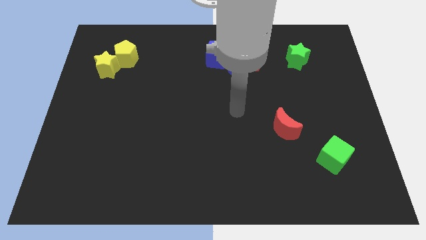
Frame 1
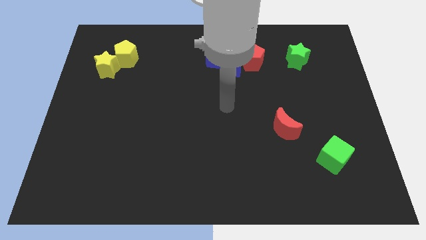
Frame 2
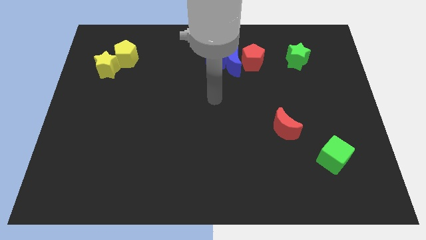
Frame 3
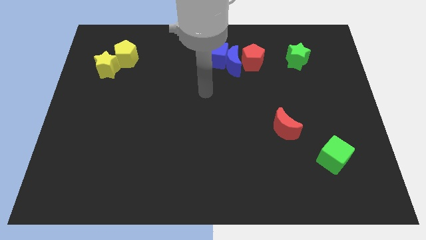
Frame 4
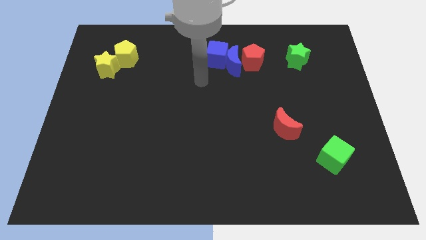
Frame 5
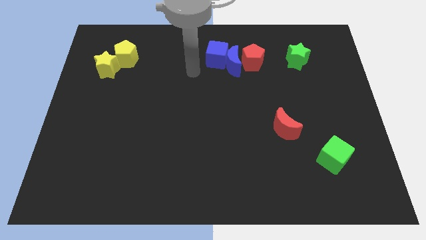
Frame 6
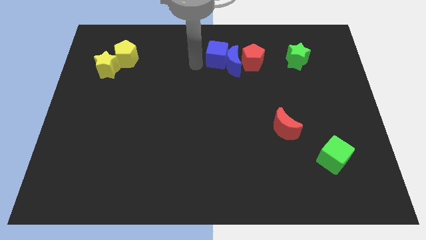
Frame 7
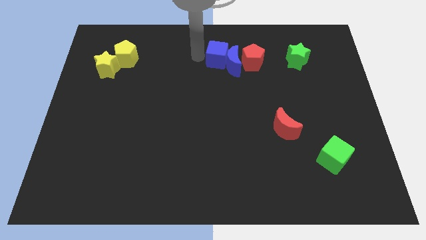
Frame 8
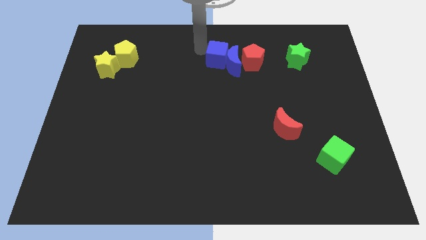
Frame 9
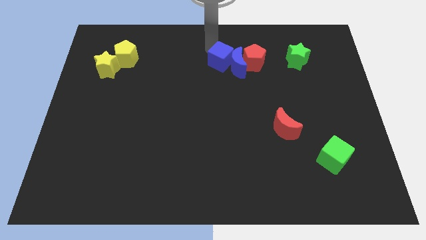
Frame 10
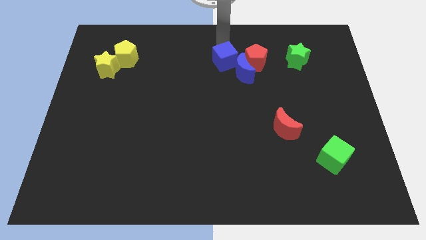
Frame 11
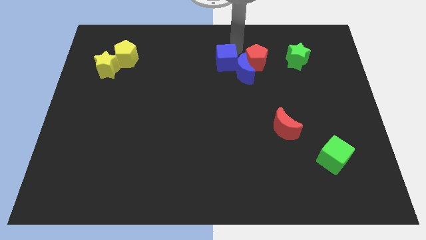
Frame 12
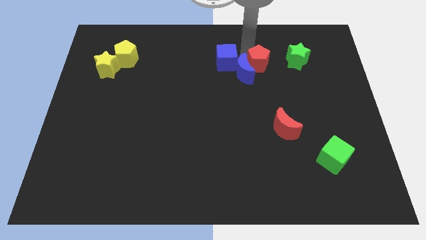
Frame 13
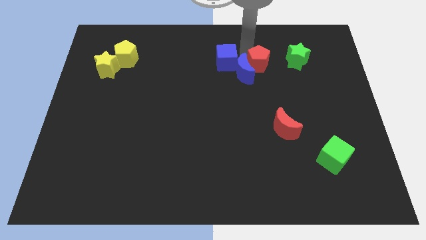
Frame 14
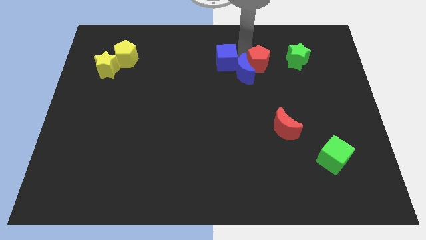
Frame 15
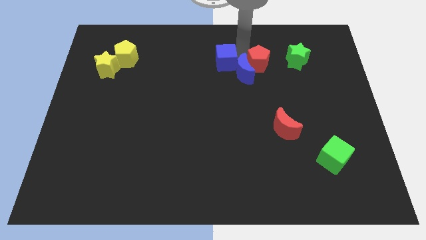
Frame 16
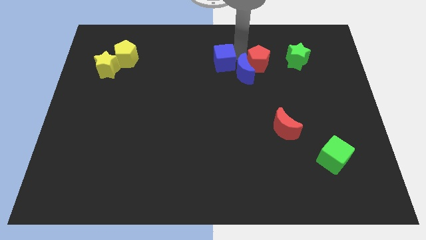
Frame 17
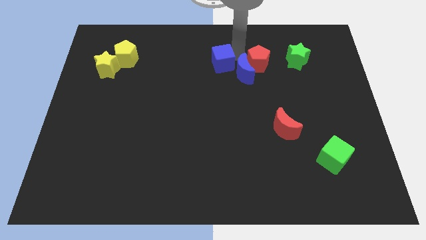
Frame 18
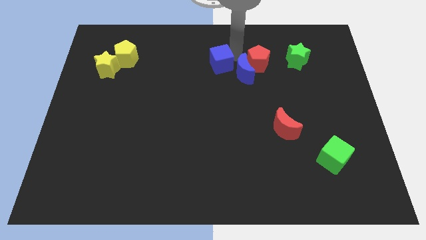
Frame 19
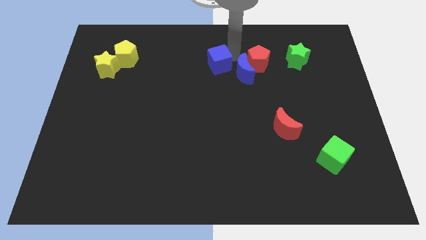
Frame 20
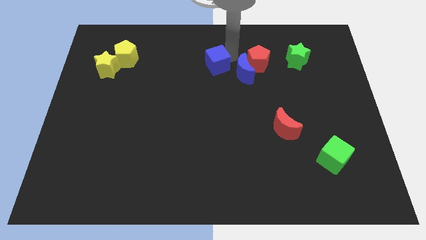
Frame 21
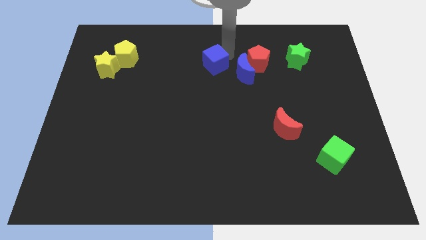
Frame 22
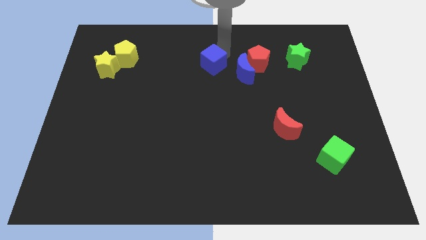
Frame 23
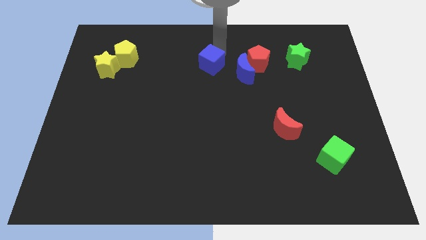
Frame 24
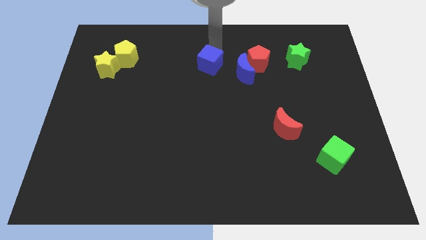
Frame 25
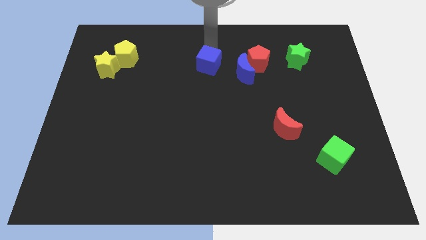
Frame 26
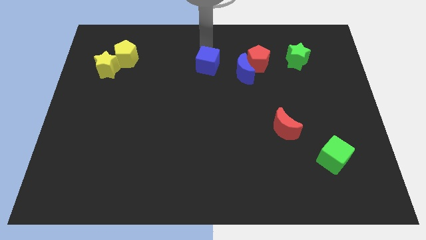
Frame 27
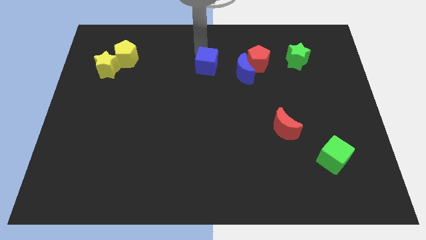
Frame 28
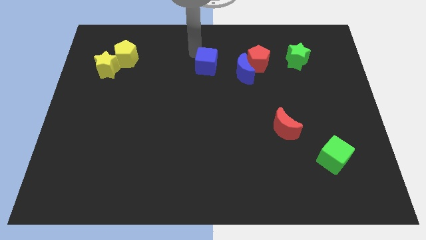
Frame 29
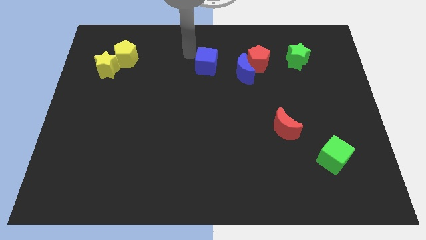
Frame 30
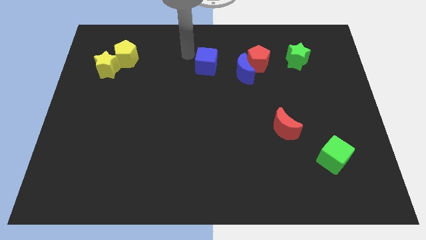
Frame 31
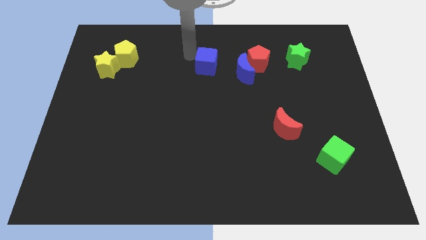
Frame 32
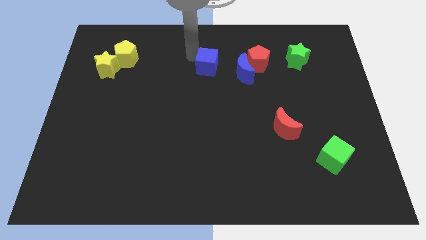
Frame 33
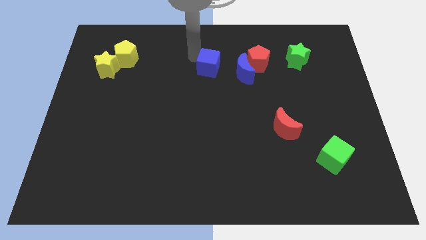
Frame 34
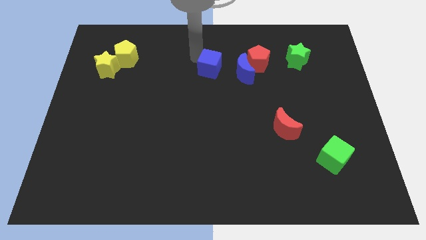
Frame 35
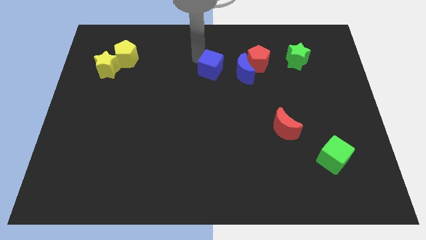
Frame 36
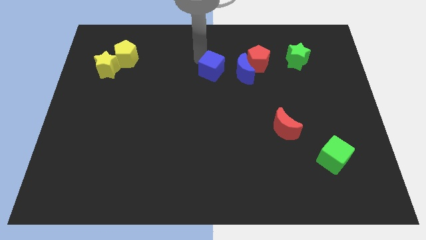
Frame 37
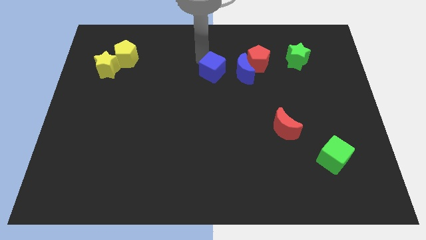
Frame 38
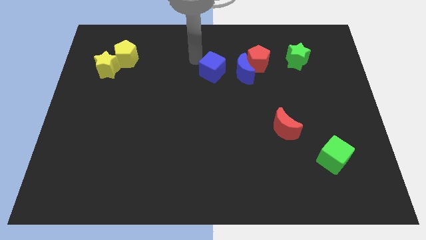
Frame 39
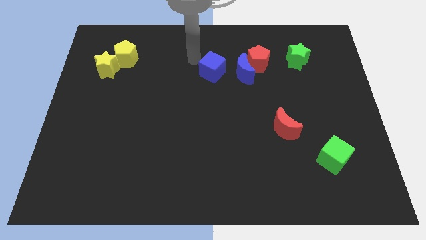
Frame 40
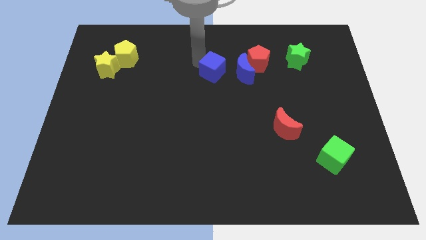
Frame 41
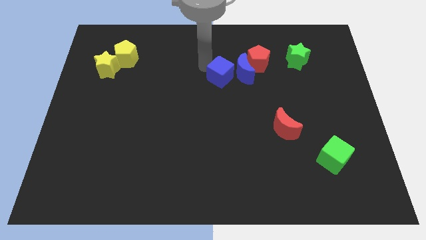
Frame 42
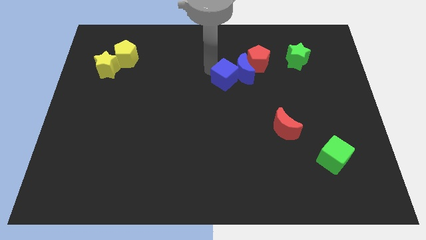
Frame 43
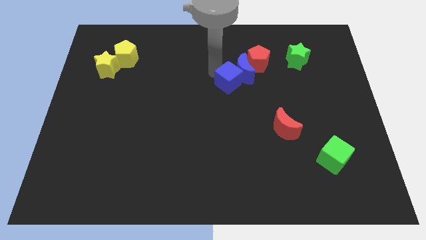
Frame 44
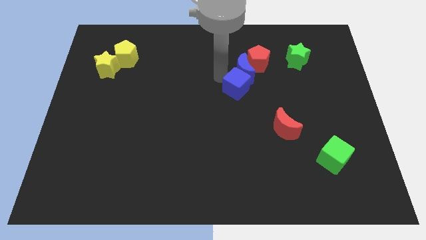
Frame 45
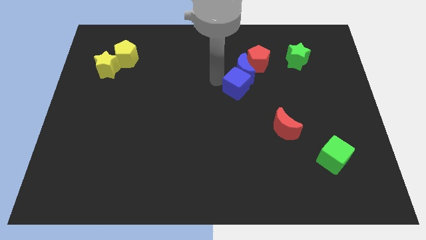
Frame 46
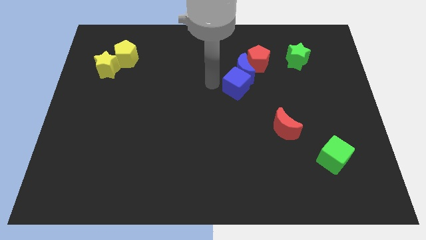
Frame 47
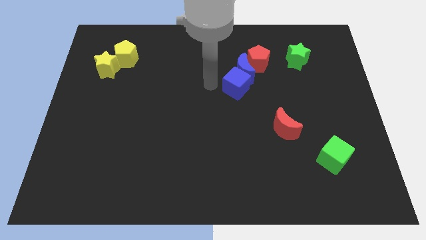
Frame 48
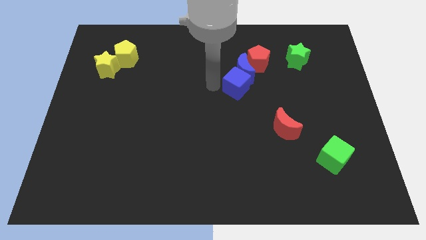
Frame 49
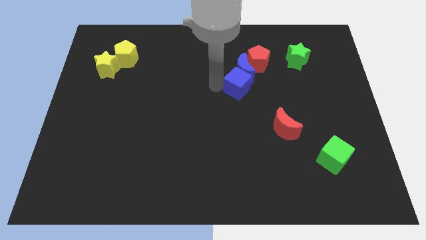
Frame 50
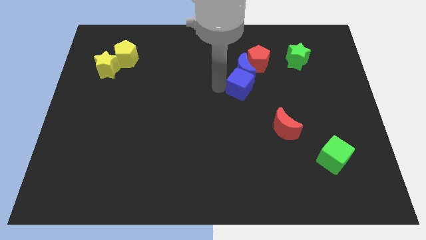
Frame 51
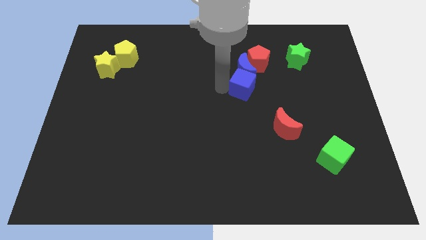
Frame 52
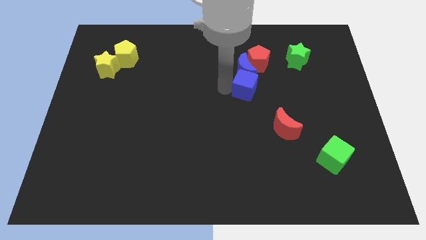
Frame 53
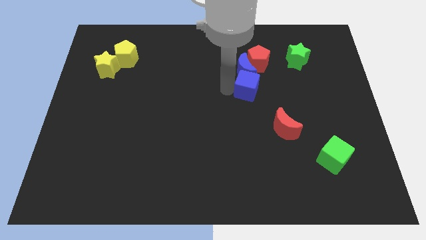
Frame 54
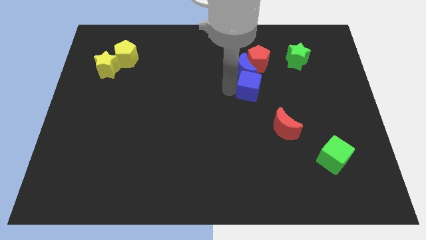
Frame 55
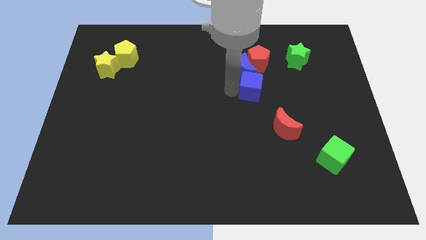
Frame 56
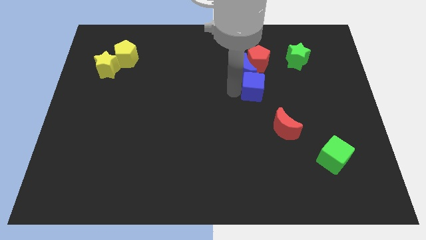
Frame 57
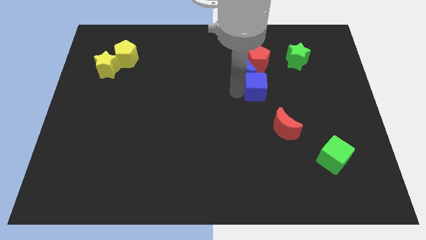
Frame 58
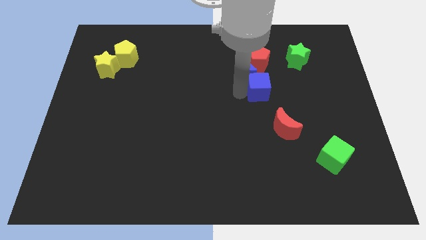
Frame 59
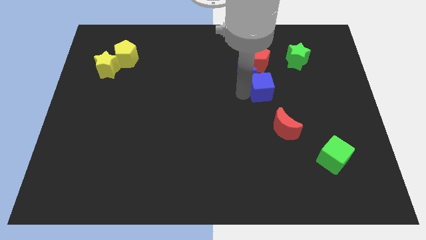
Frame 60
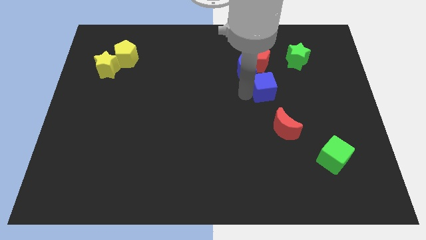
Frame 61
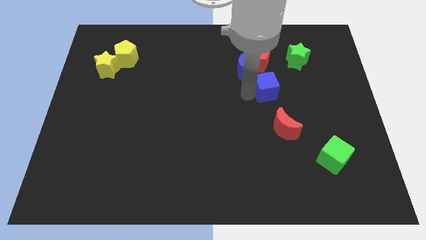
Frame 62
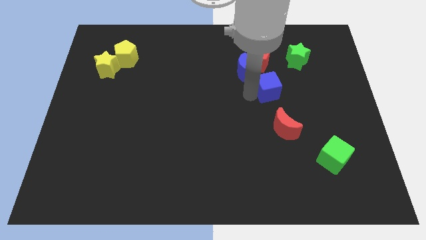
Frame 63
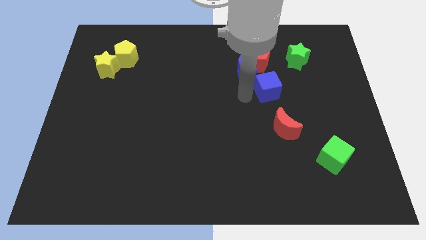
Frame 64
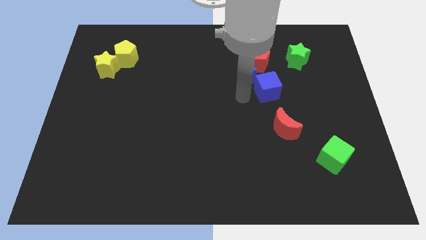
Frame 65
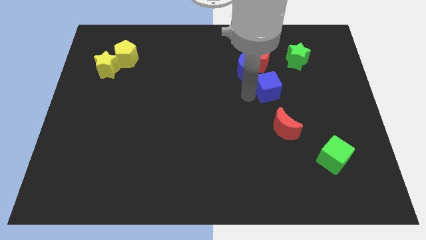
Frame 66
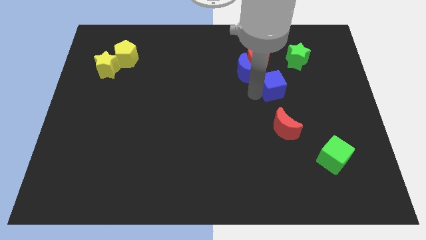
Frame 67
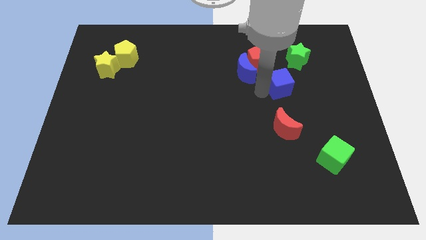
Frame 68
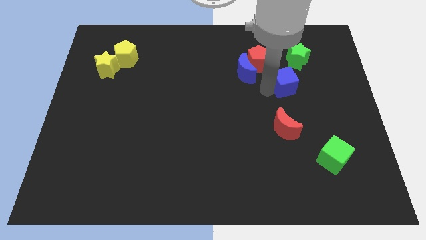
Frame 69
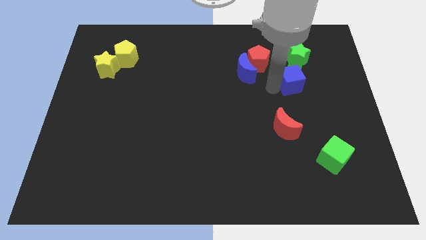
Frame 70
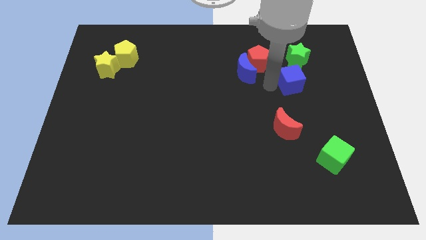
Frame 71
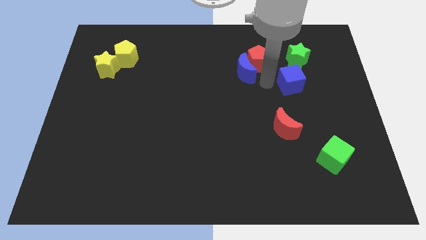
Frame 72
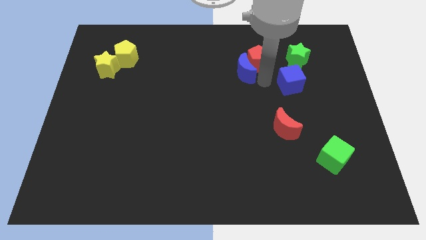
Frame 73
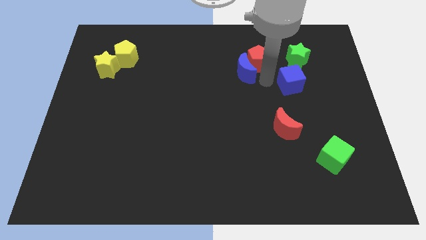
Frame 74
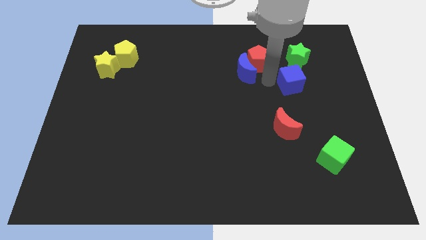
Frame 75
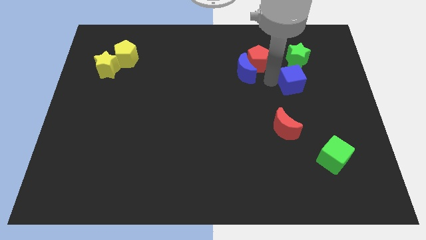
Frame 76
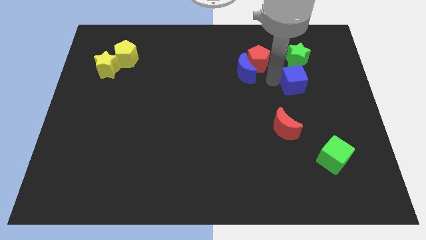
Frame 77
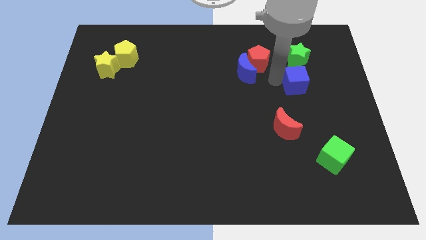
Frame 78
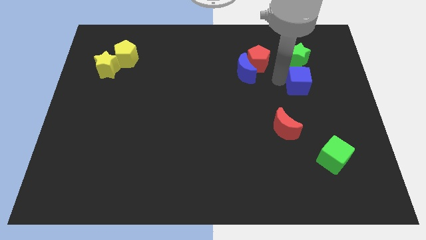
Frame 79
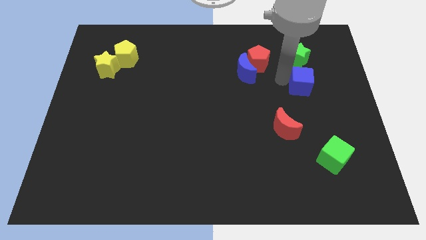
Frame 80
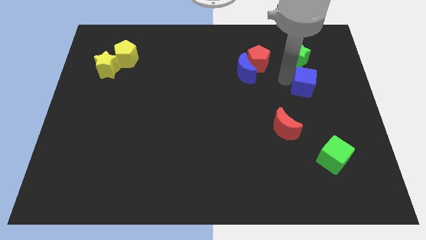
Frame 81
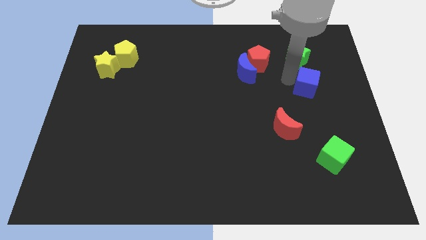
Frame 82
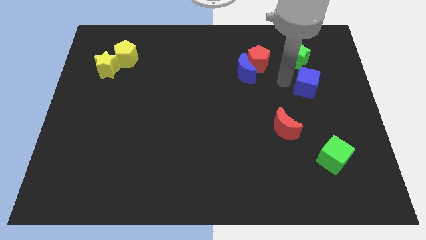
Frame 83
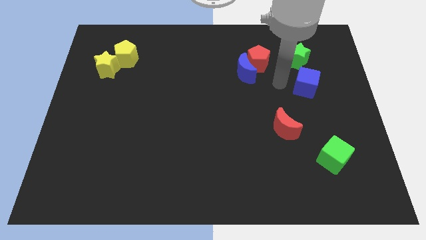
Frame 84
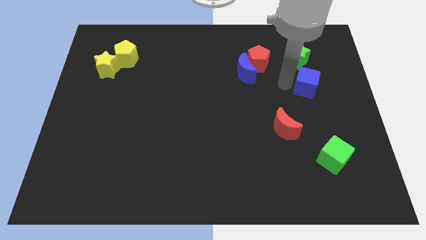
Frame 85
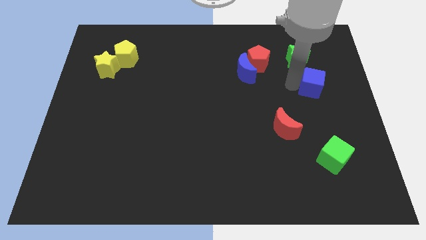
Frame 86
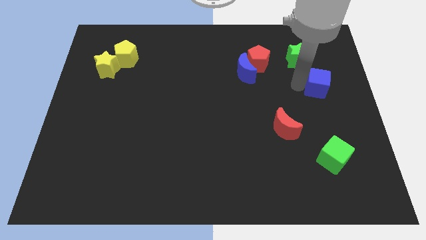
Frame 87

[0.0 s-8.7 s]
push the blue cube to the center right
